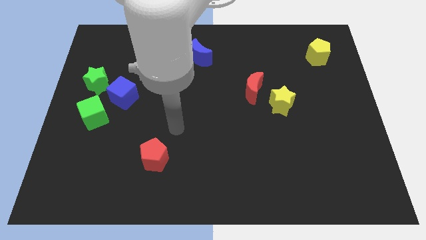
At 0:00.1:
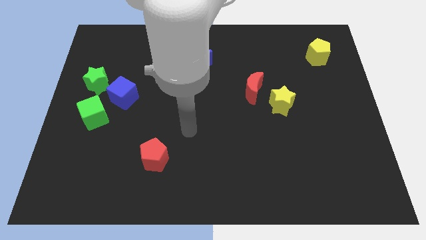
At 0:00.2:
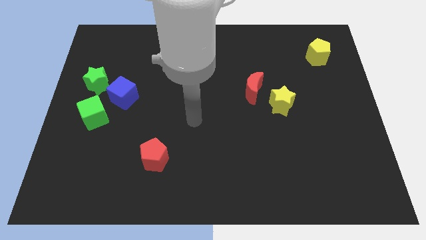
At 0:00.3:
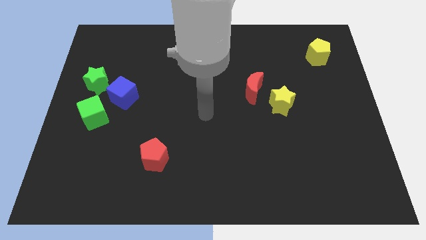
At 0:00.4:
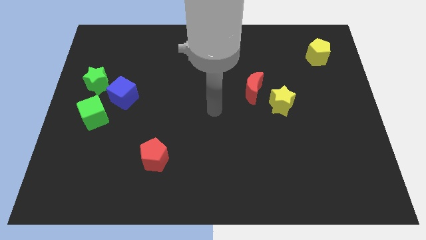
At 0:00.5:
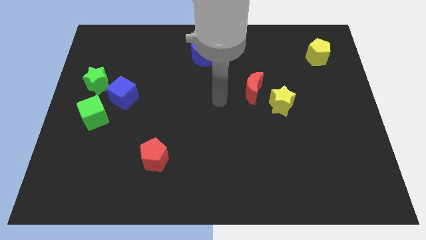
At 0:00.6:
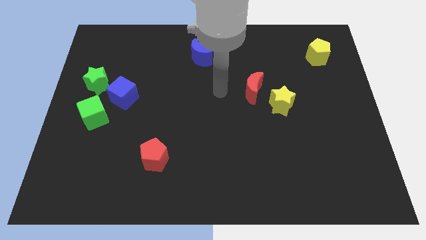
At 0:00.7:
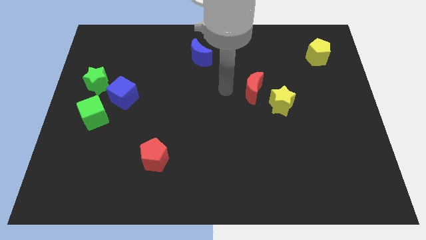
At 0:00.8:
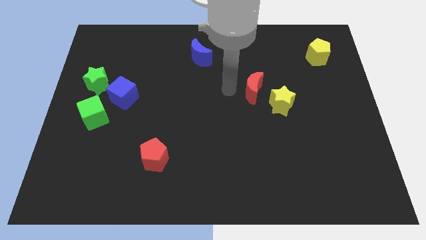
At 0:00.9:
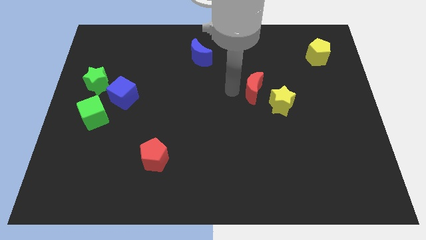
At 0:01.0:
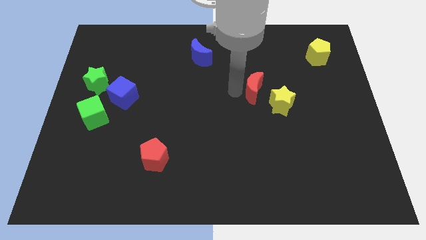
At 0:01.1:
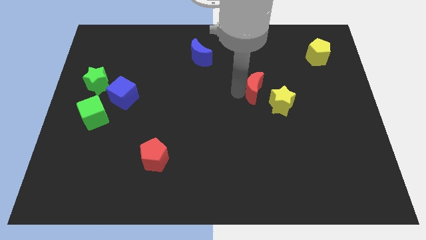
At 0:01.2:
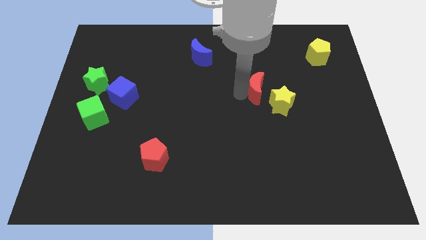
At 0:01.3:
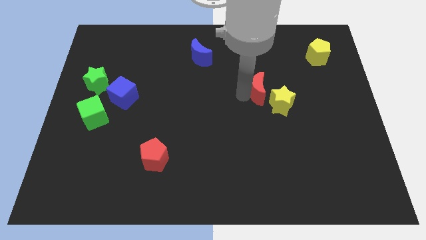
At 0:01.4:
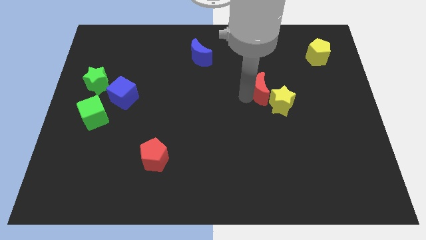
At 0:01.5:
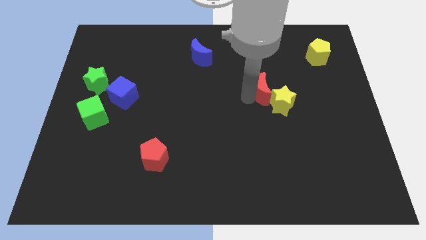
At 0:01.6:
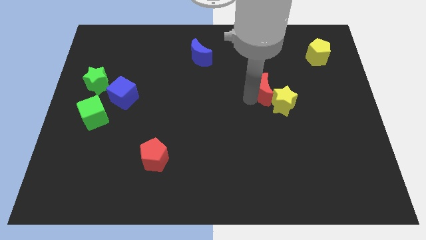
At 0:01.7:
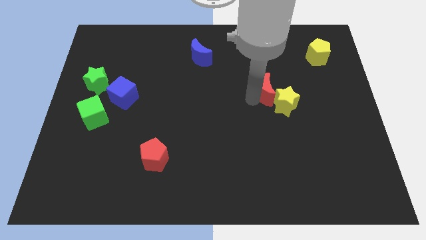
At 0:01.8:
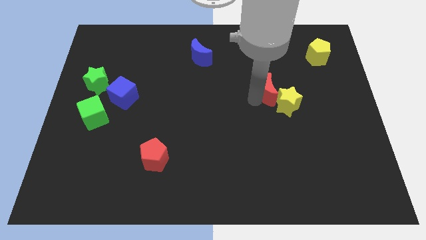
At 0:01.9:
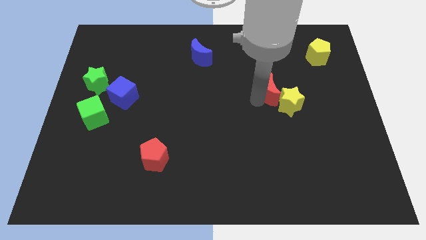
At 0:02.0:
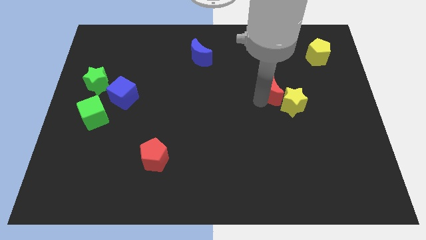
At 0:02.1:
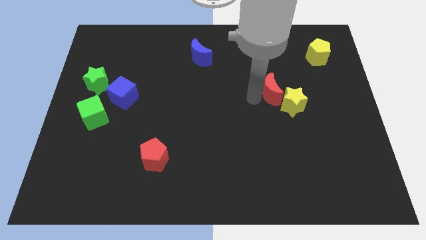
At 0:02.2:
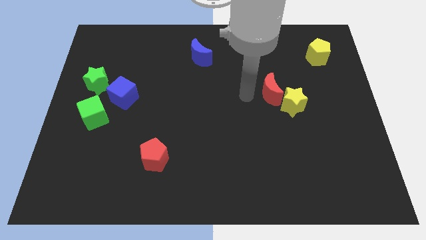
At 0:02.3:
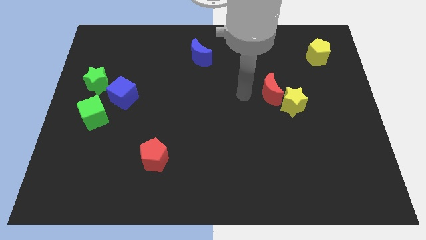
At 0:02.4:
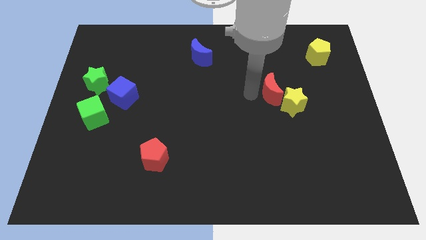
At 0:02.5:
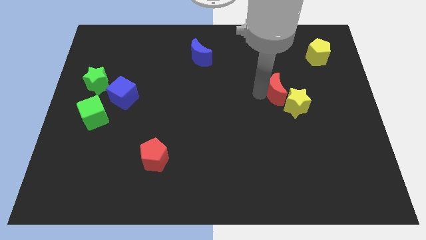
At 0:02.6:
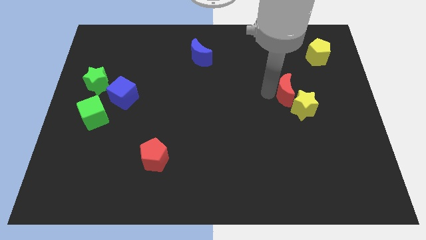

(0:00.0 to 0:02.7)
slightly move the red moon to the right

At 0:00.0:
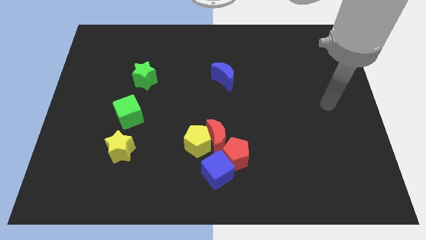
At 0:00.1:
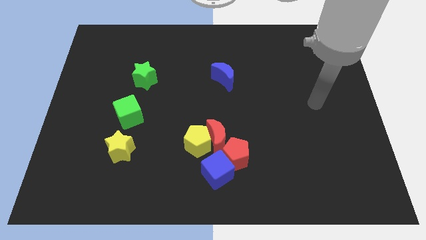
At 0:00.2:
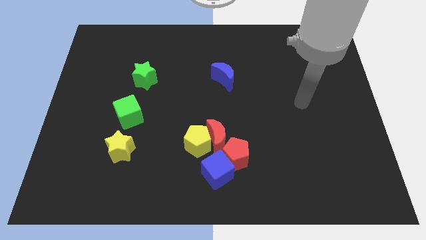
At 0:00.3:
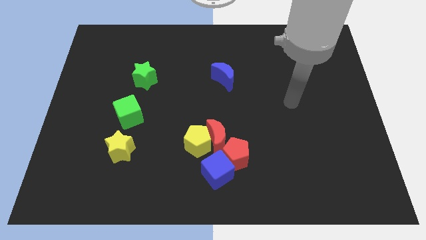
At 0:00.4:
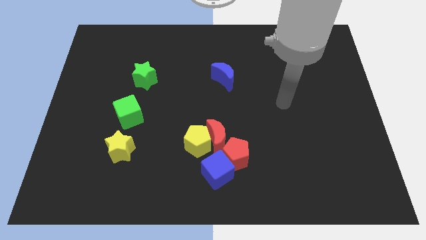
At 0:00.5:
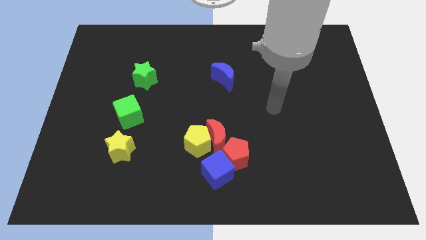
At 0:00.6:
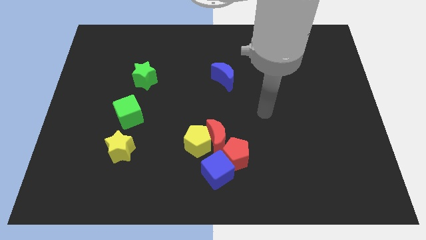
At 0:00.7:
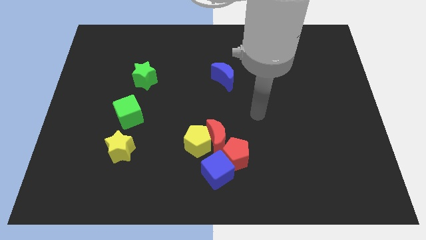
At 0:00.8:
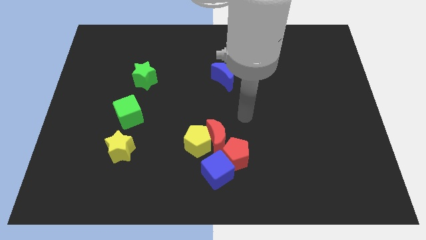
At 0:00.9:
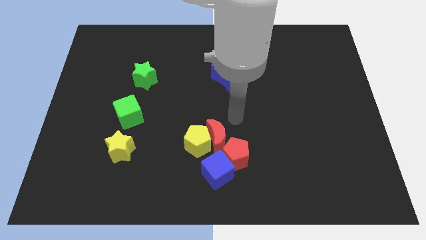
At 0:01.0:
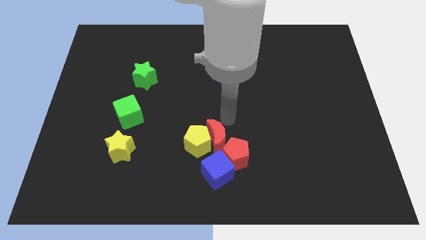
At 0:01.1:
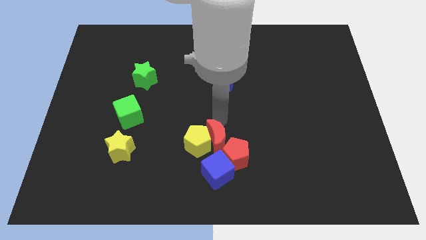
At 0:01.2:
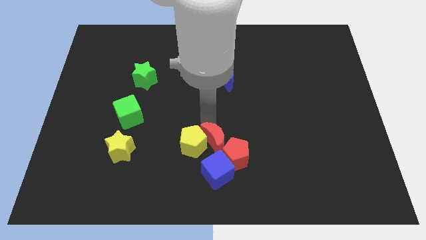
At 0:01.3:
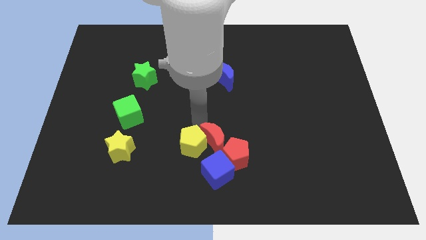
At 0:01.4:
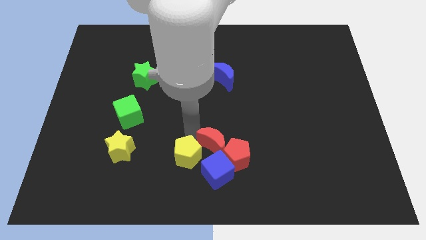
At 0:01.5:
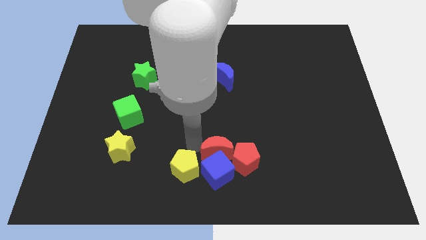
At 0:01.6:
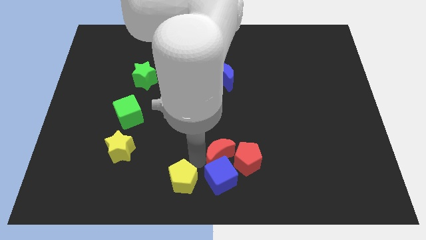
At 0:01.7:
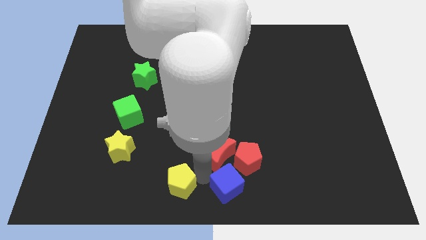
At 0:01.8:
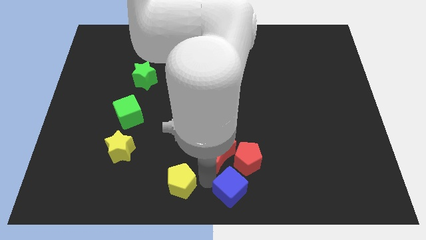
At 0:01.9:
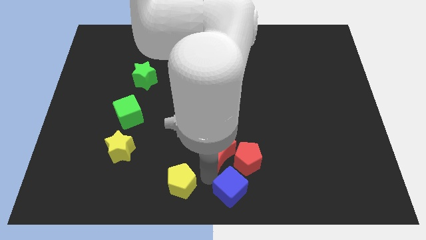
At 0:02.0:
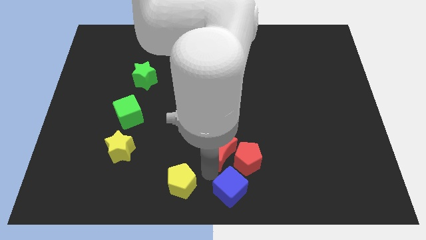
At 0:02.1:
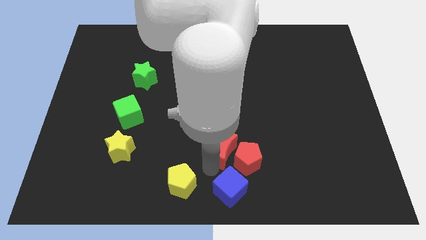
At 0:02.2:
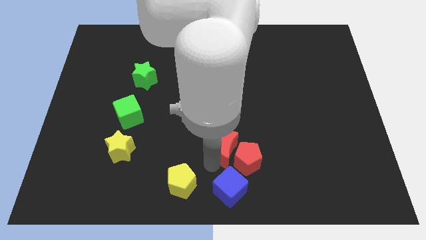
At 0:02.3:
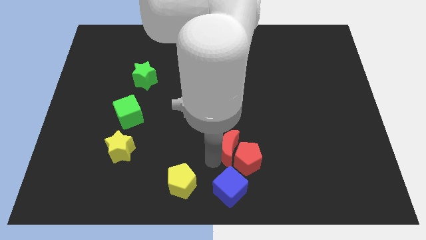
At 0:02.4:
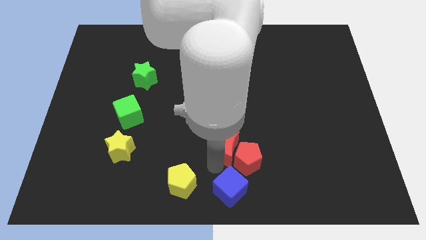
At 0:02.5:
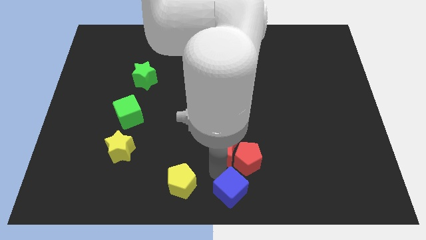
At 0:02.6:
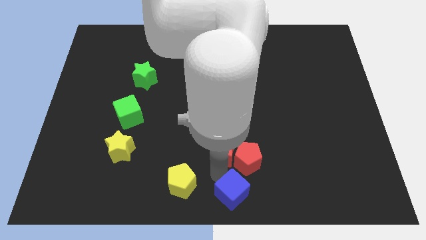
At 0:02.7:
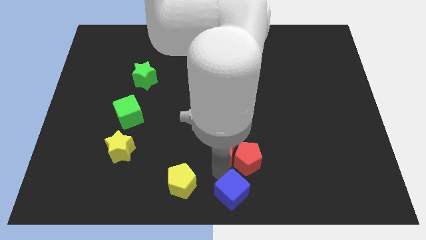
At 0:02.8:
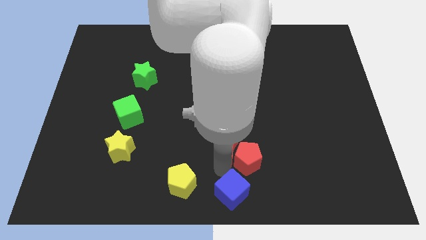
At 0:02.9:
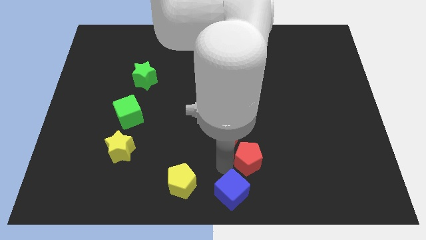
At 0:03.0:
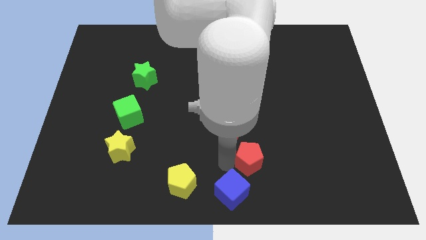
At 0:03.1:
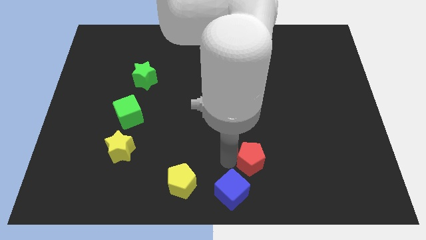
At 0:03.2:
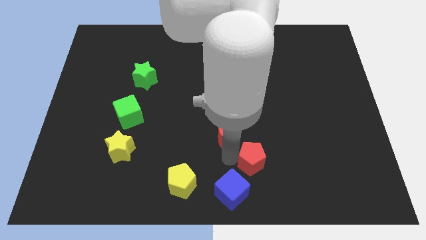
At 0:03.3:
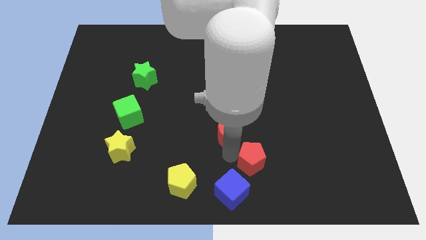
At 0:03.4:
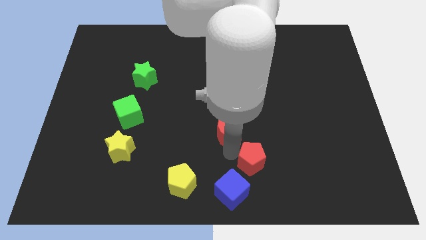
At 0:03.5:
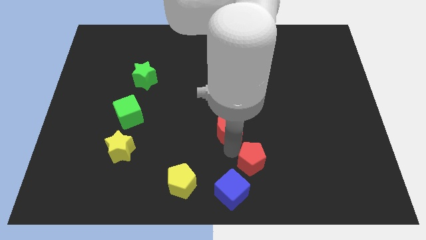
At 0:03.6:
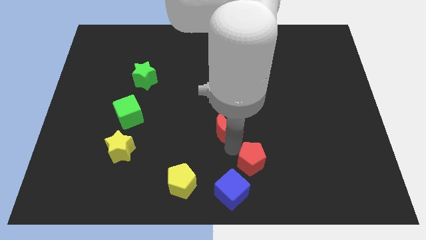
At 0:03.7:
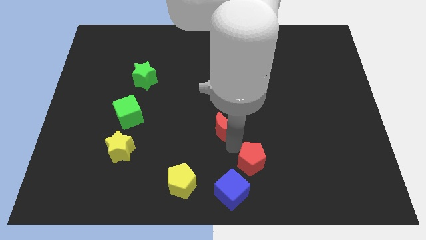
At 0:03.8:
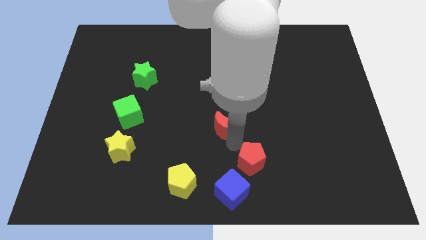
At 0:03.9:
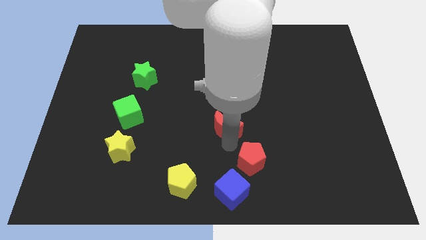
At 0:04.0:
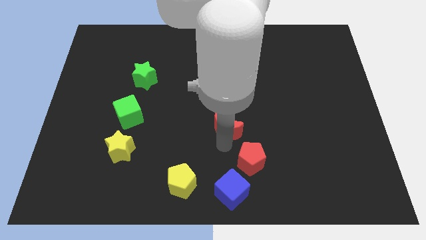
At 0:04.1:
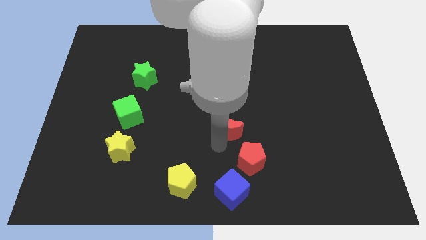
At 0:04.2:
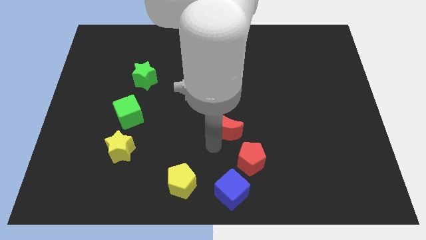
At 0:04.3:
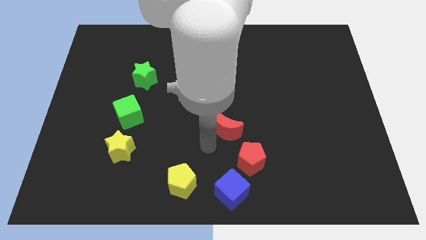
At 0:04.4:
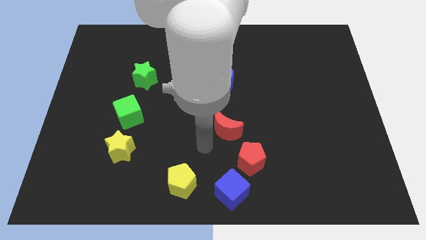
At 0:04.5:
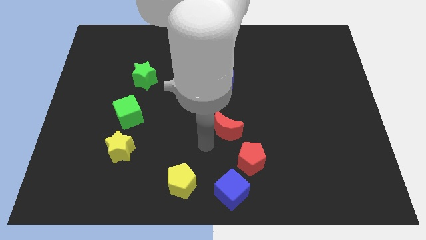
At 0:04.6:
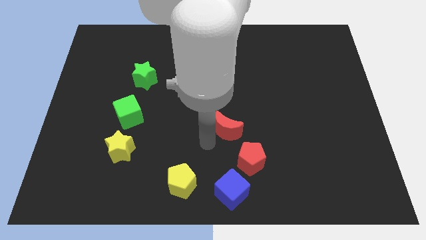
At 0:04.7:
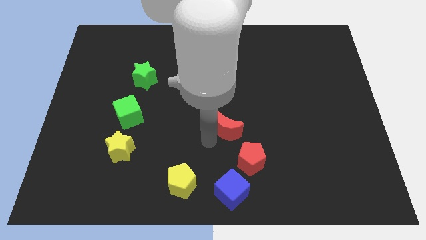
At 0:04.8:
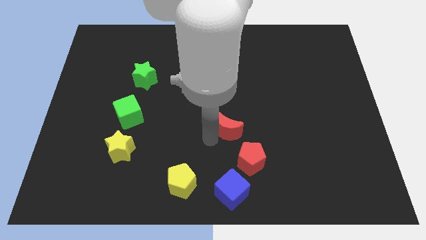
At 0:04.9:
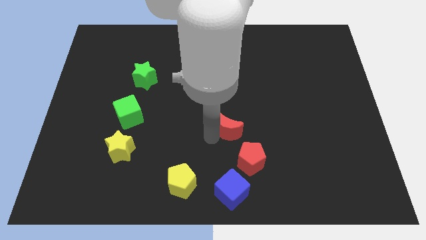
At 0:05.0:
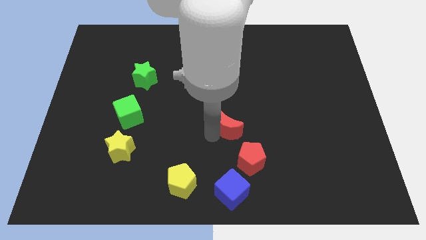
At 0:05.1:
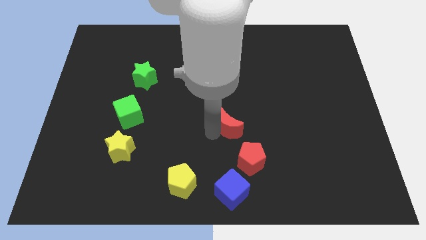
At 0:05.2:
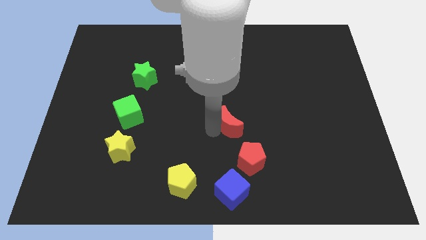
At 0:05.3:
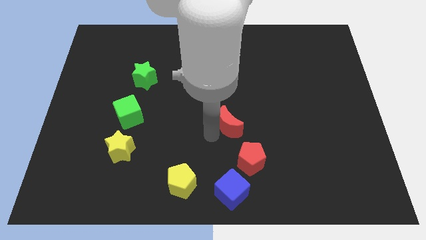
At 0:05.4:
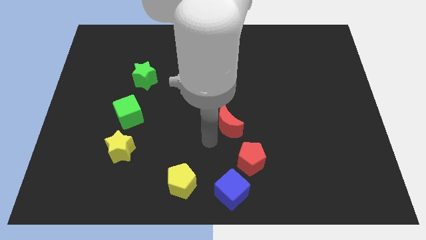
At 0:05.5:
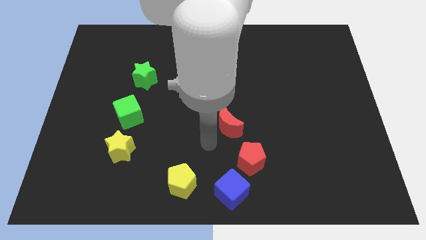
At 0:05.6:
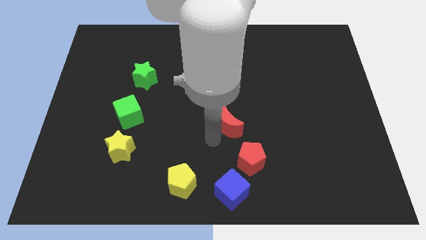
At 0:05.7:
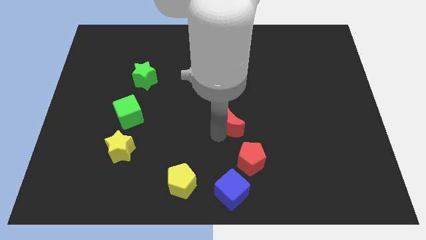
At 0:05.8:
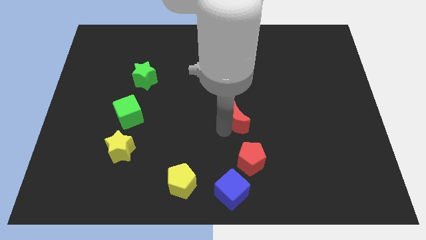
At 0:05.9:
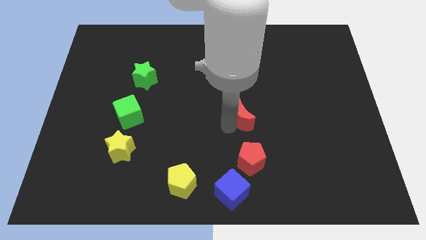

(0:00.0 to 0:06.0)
slightly slide the red moon up and to the right diagonally
